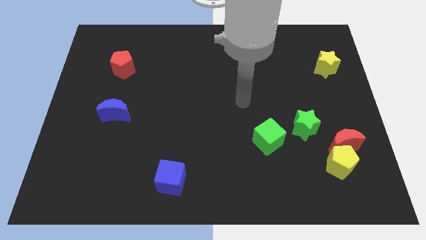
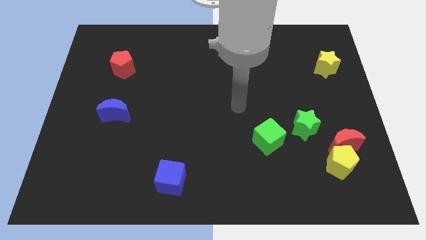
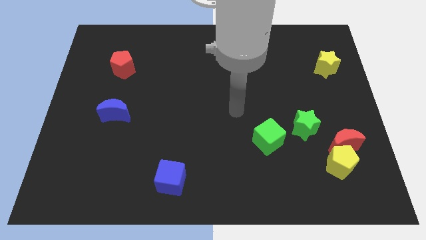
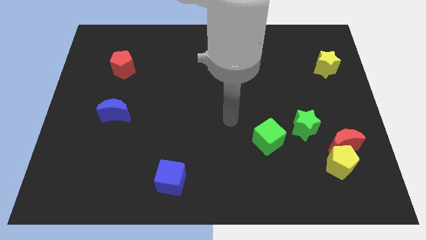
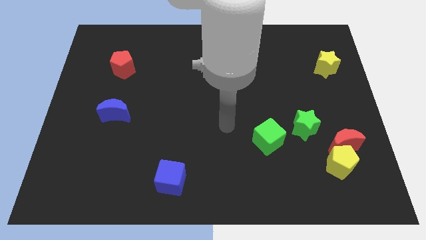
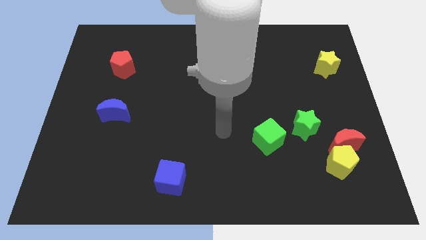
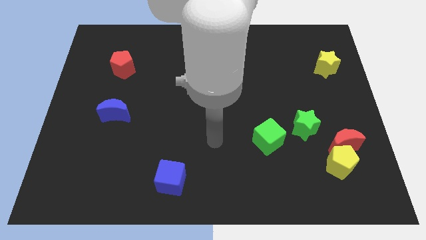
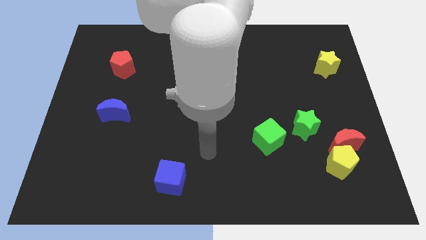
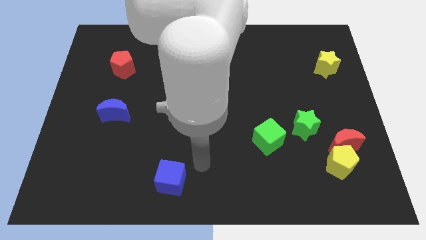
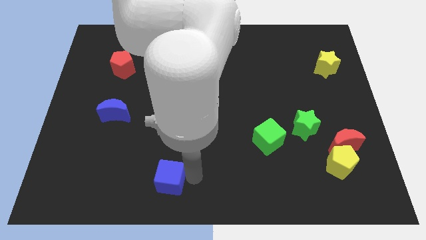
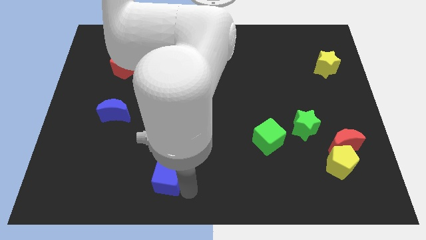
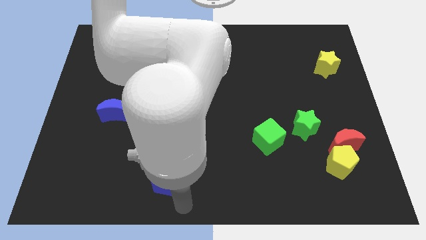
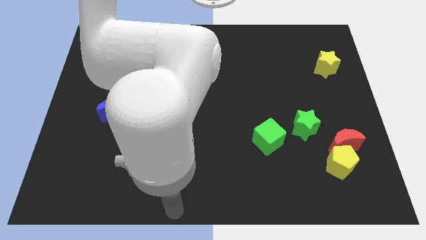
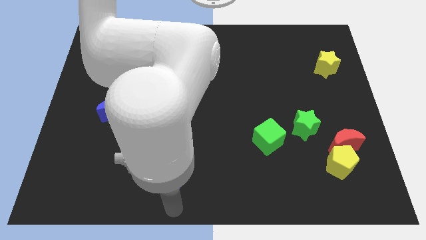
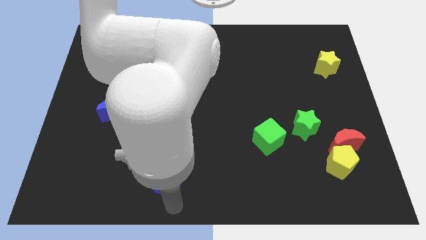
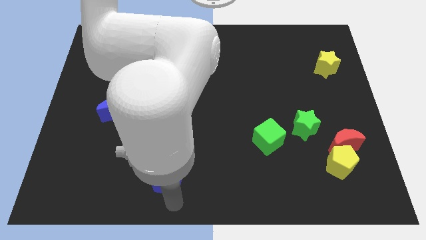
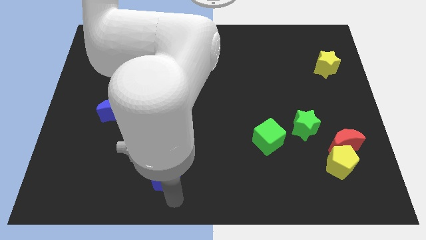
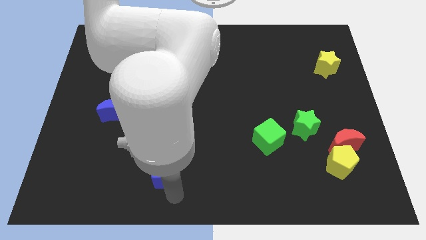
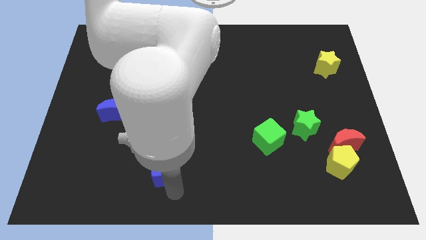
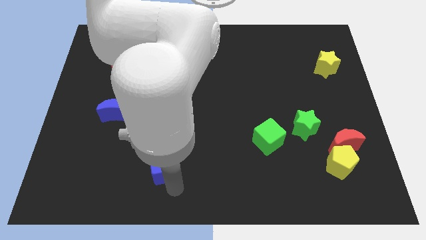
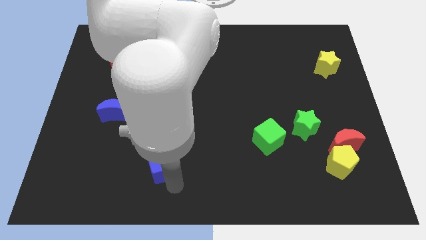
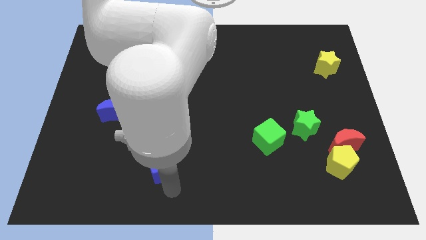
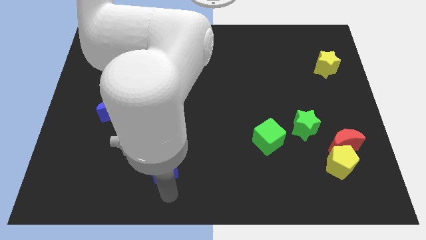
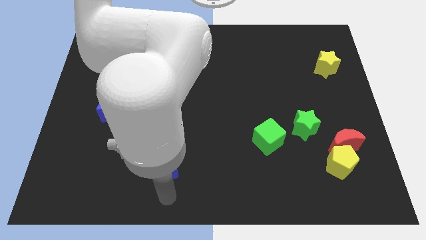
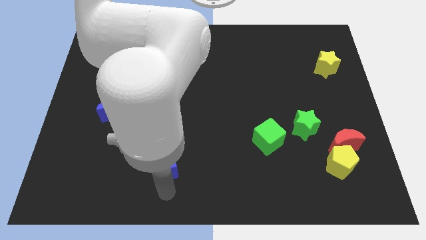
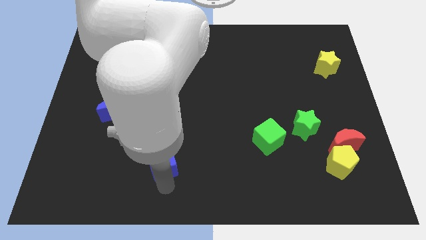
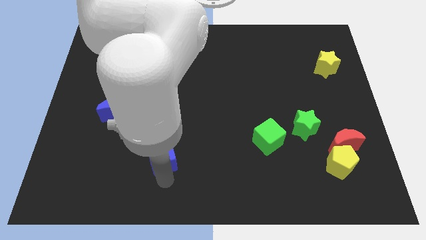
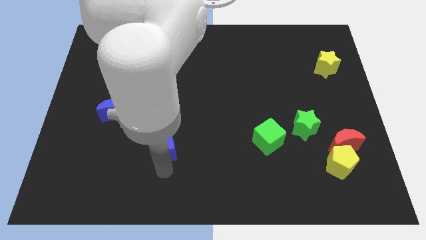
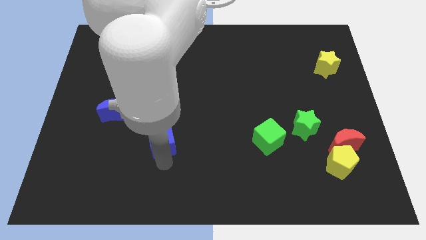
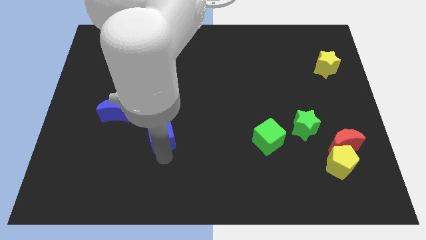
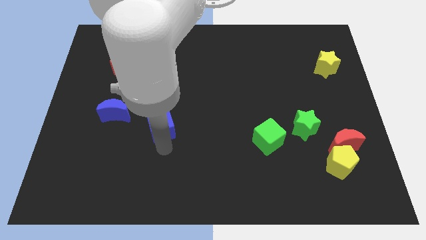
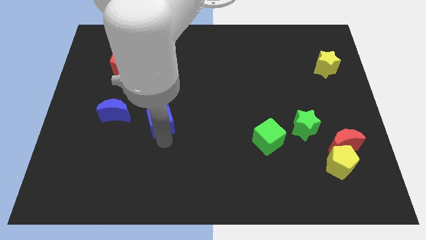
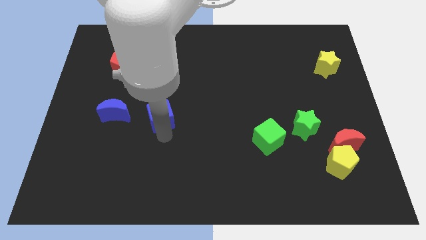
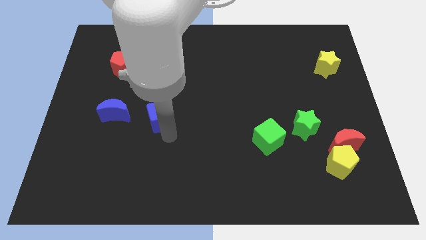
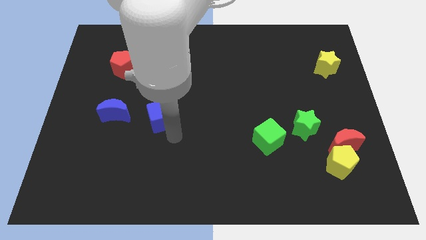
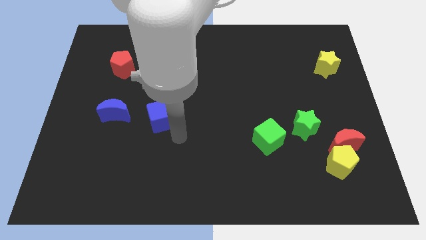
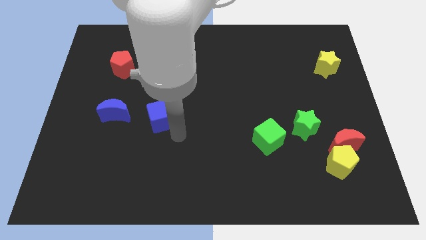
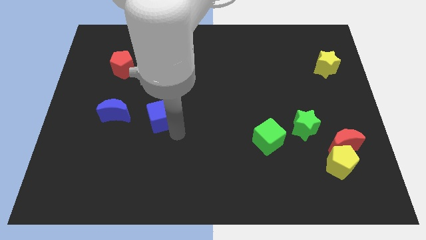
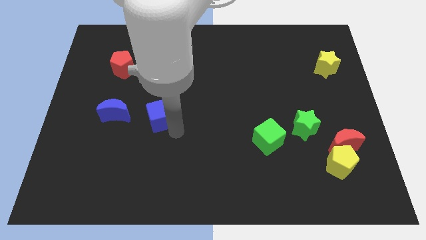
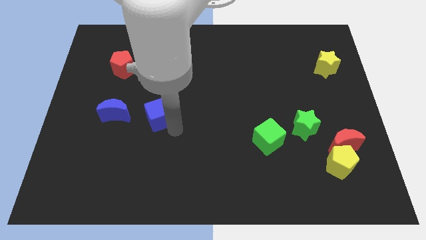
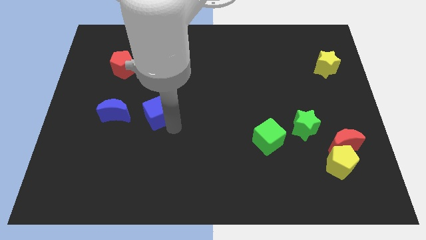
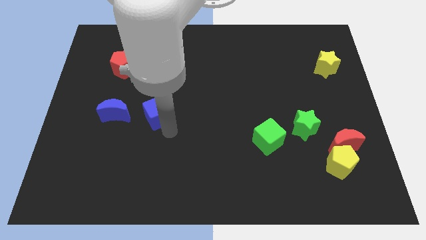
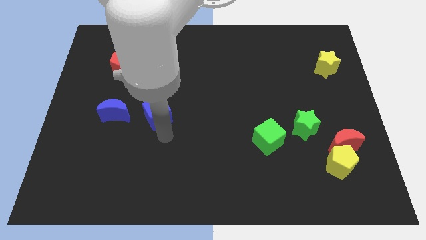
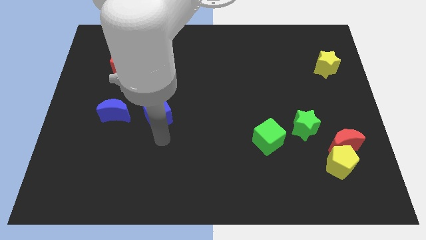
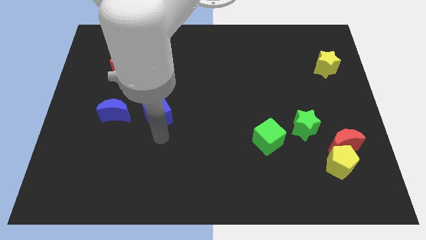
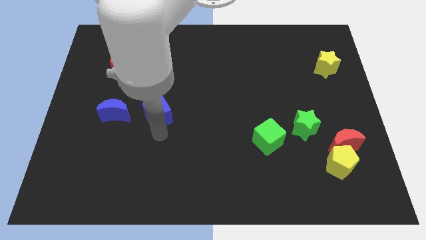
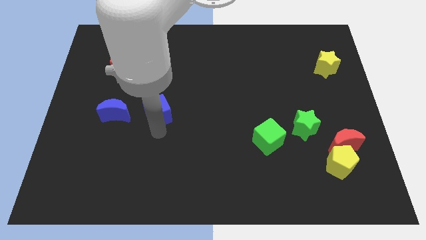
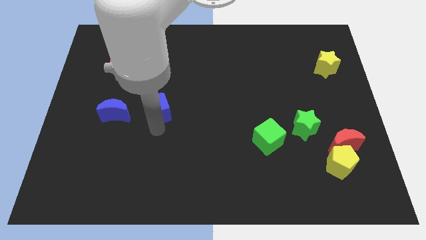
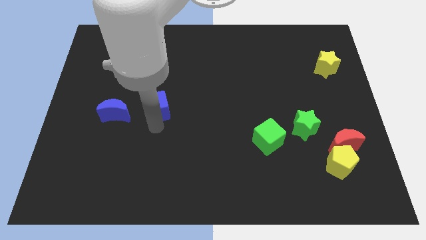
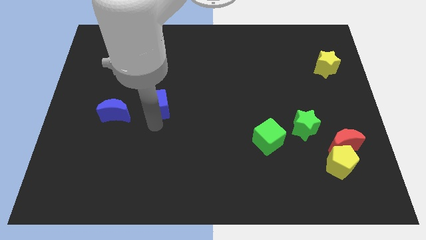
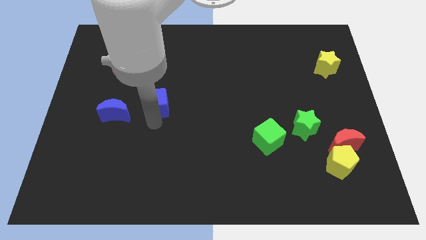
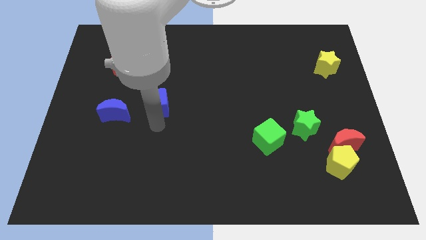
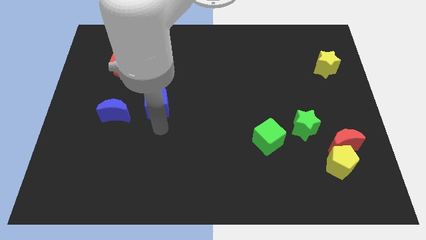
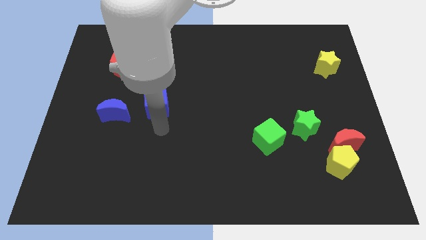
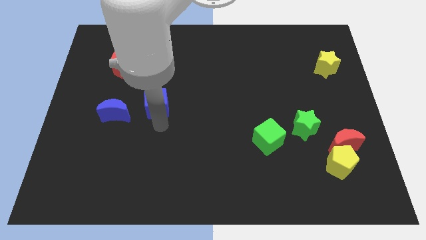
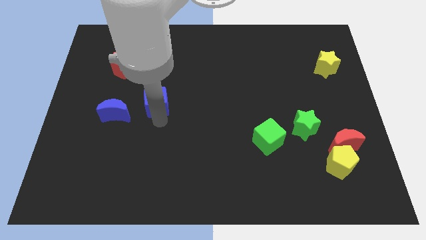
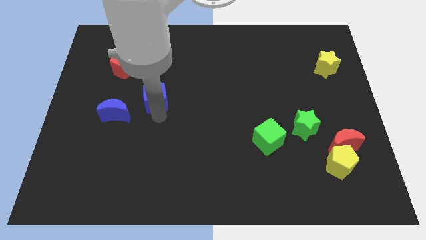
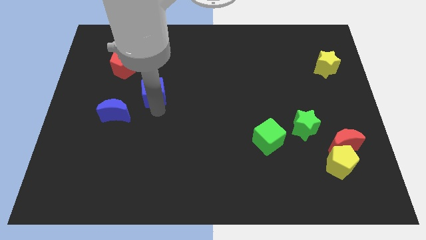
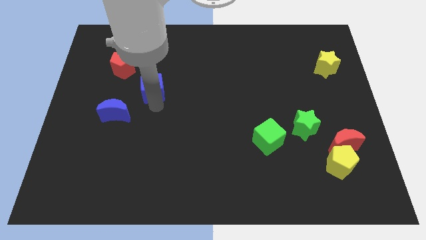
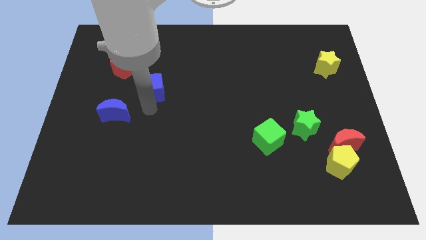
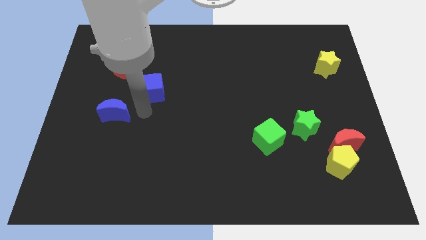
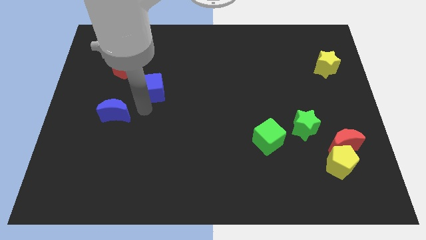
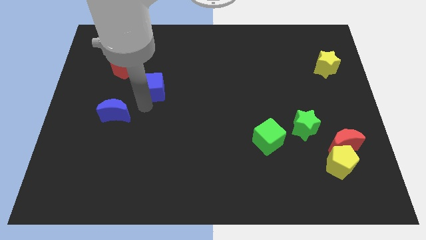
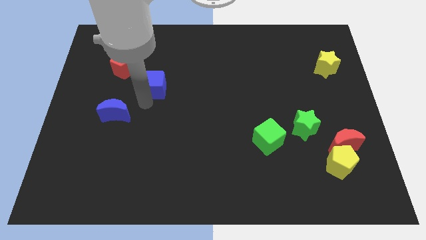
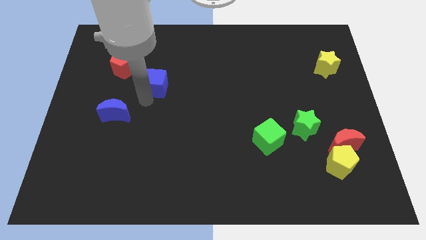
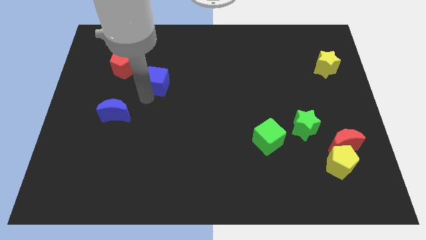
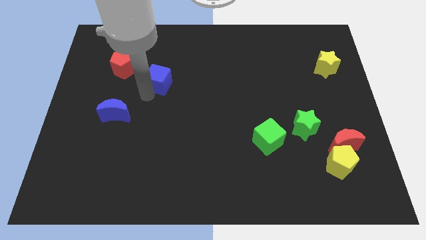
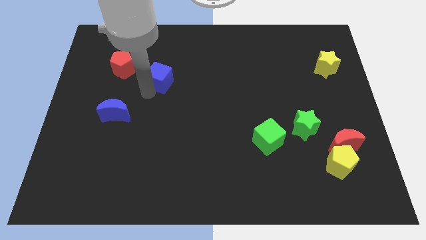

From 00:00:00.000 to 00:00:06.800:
slide the blue cube to the right side of the red pentagon

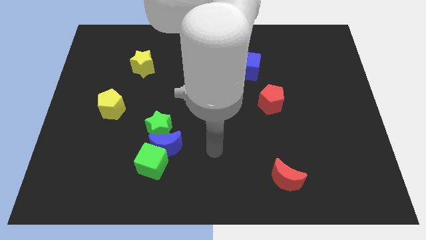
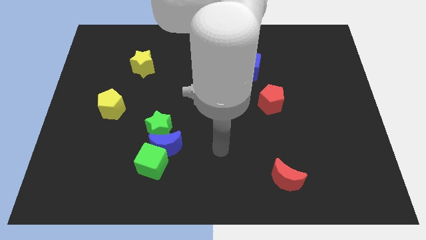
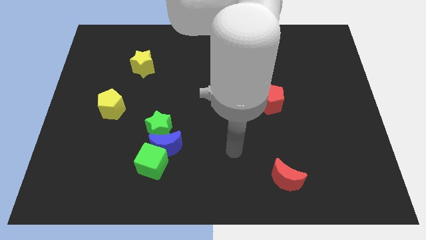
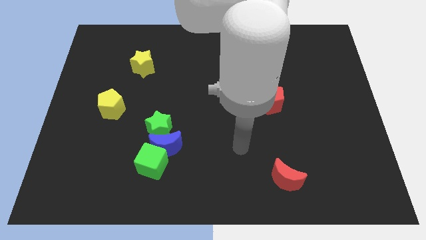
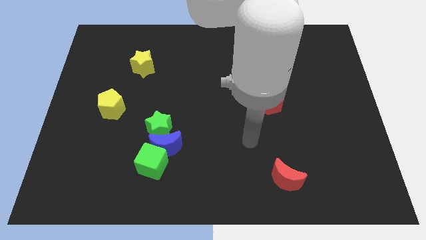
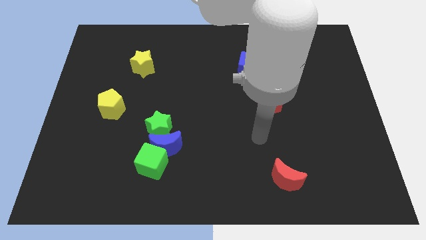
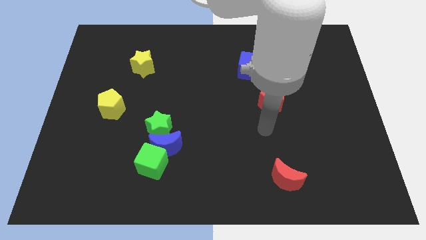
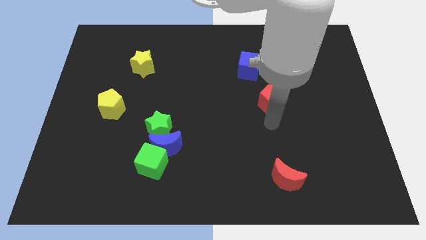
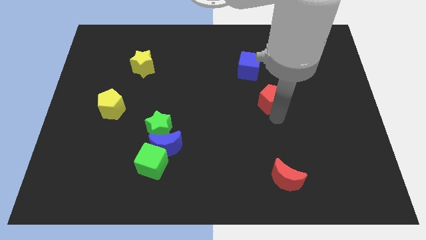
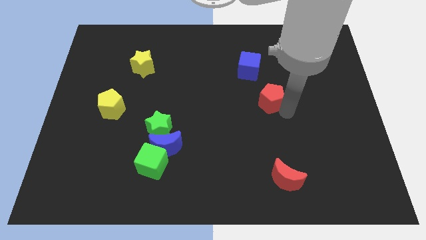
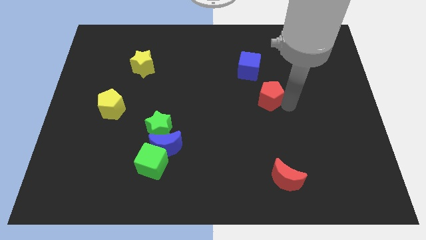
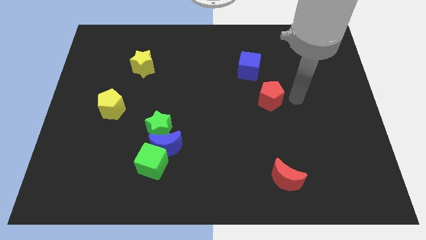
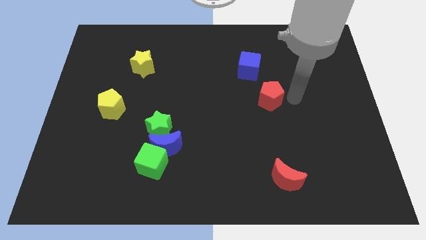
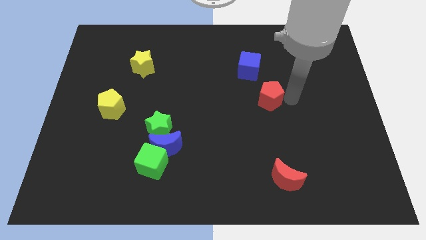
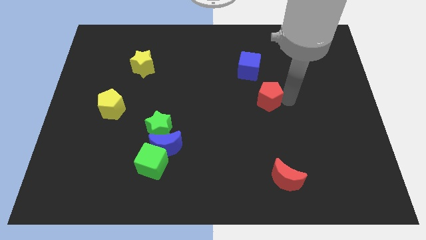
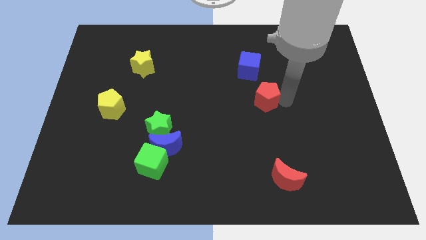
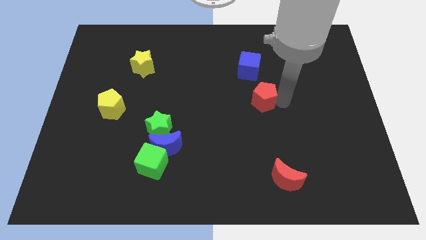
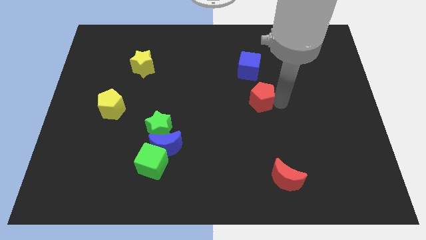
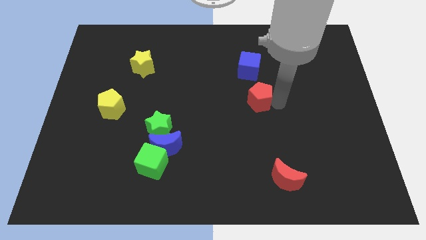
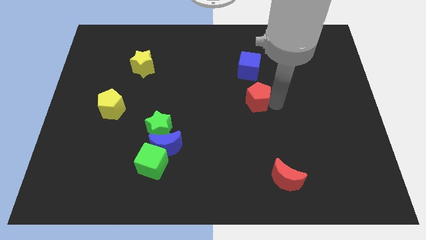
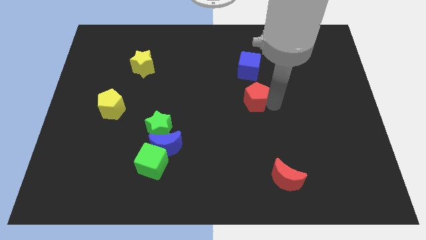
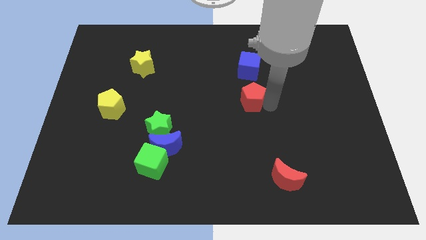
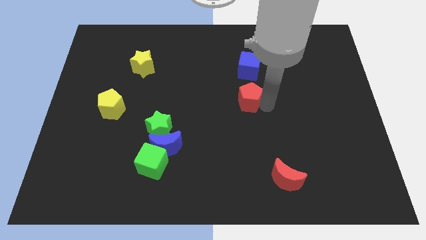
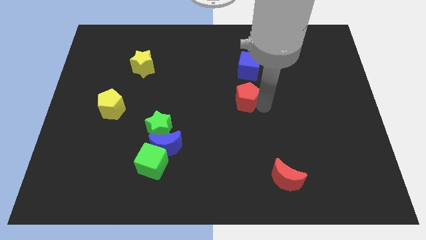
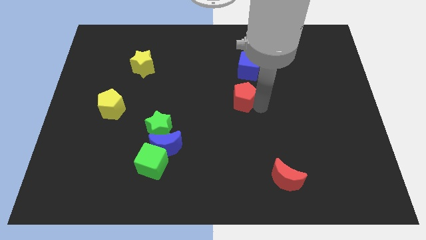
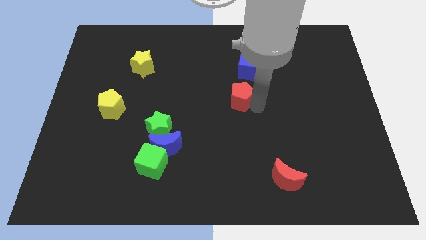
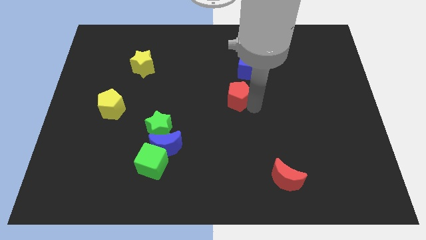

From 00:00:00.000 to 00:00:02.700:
move the red pentagon to the bottom left of the blue cube
